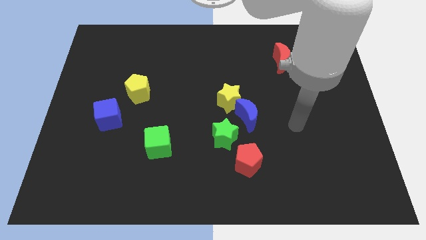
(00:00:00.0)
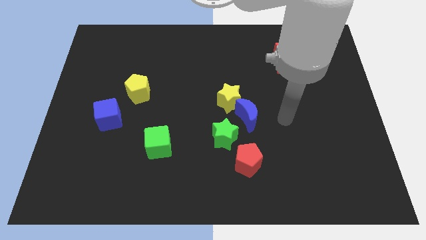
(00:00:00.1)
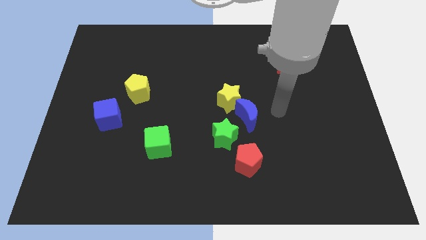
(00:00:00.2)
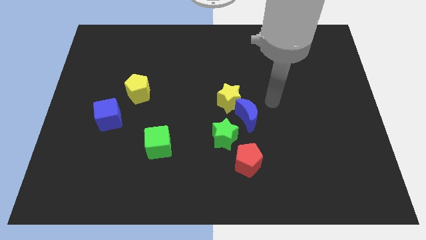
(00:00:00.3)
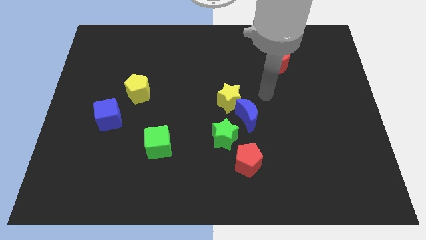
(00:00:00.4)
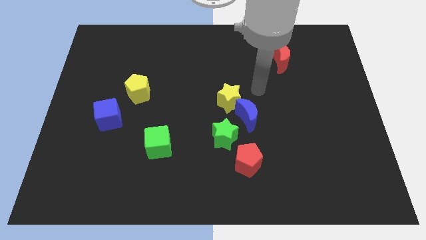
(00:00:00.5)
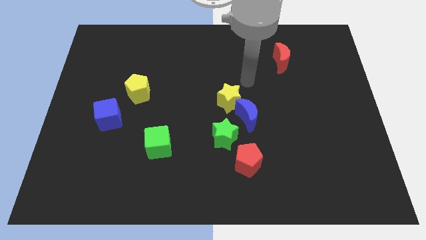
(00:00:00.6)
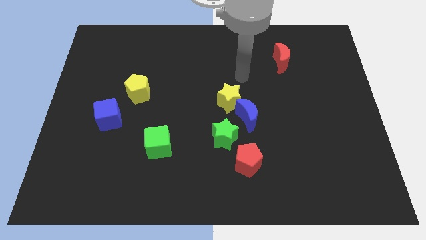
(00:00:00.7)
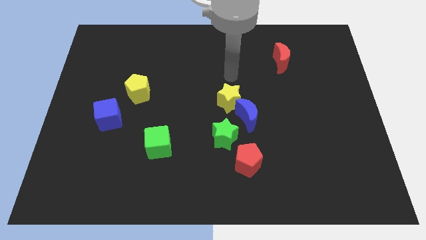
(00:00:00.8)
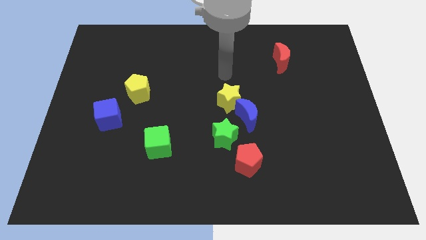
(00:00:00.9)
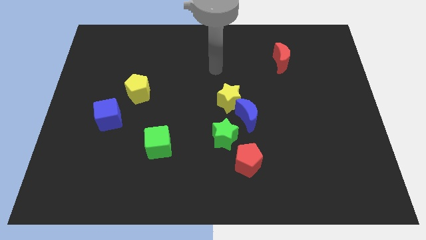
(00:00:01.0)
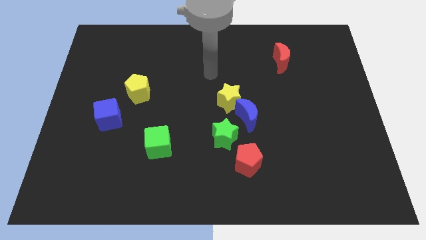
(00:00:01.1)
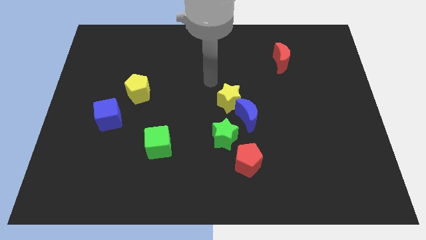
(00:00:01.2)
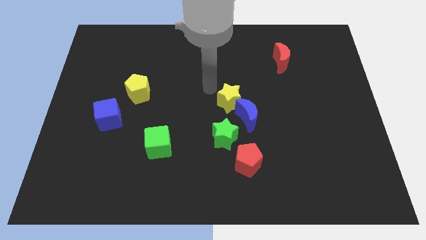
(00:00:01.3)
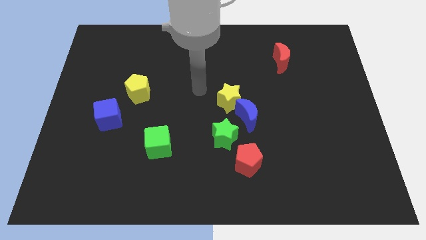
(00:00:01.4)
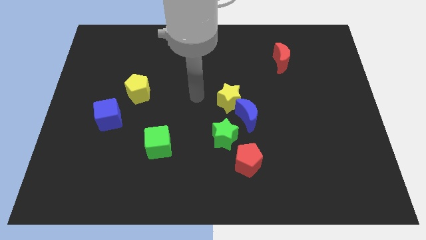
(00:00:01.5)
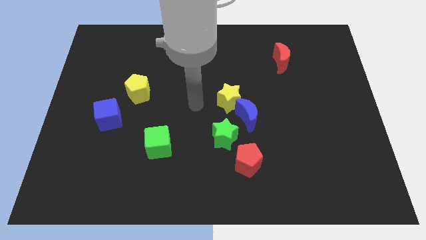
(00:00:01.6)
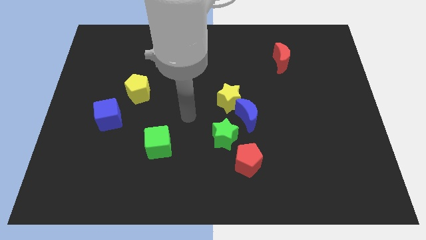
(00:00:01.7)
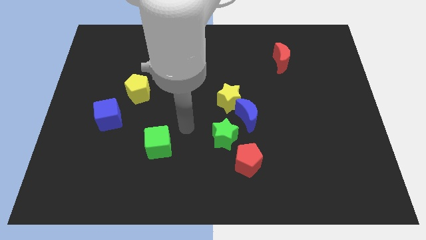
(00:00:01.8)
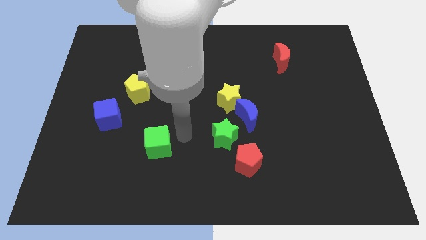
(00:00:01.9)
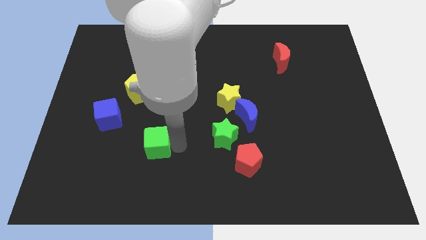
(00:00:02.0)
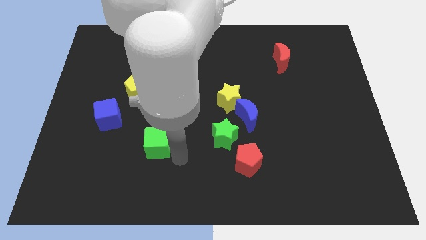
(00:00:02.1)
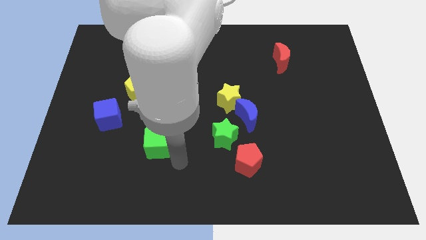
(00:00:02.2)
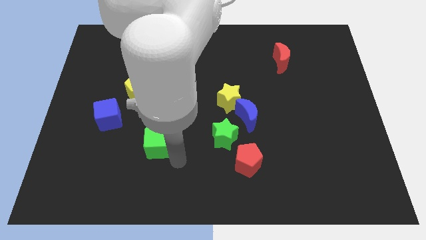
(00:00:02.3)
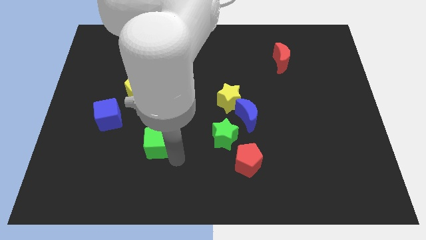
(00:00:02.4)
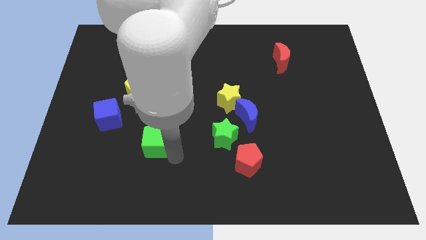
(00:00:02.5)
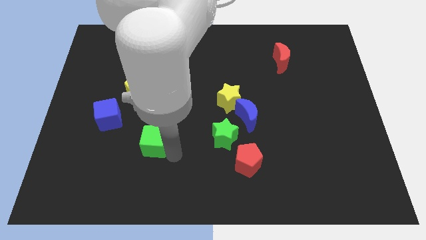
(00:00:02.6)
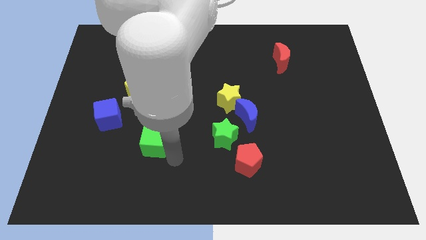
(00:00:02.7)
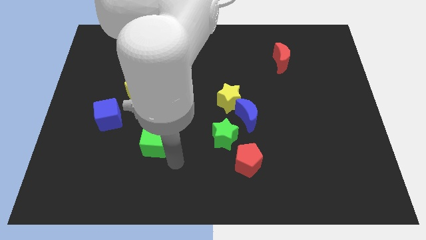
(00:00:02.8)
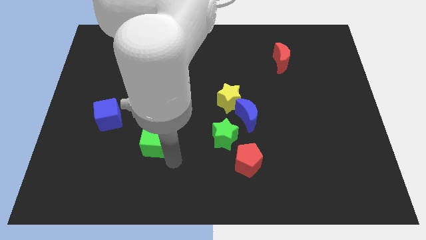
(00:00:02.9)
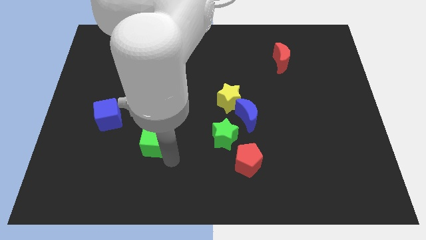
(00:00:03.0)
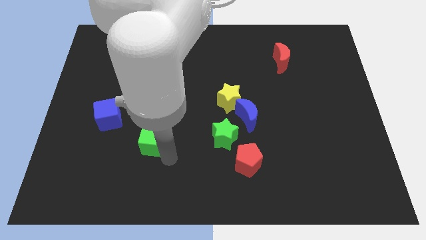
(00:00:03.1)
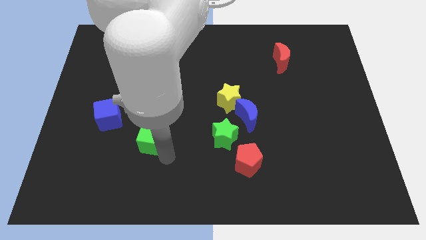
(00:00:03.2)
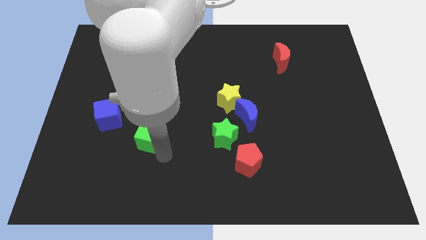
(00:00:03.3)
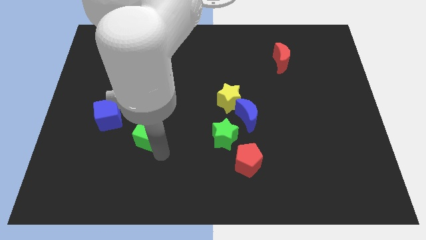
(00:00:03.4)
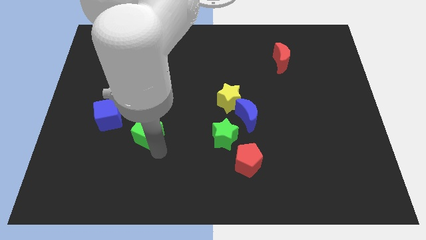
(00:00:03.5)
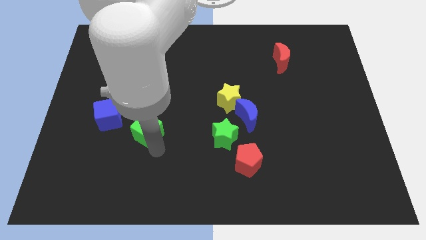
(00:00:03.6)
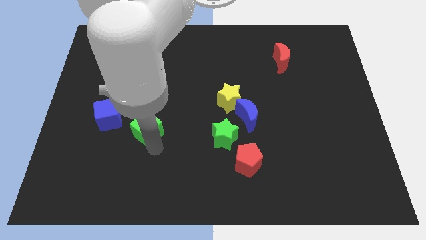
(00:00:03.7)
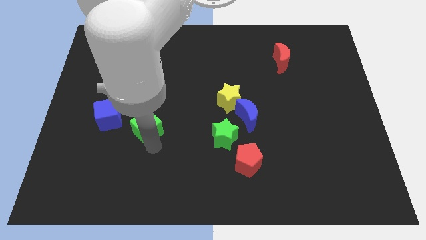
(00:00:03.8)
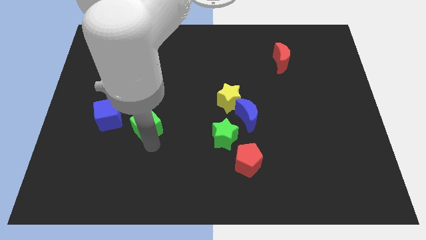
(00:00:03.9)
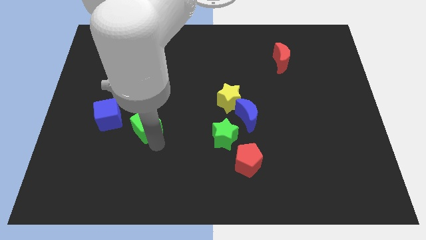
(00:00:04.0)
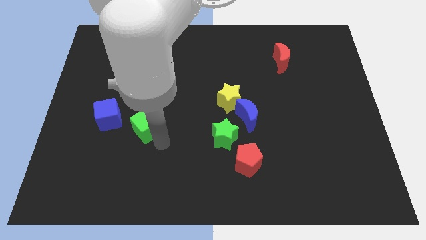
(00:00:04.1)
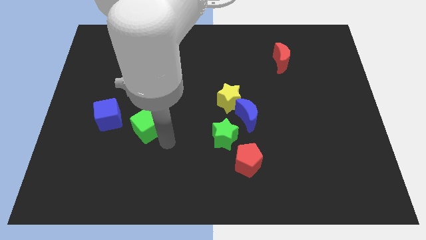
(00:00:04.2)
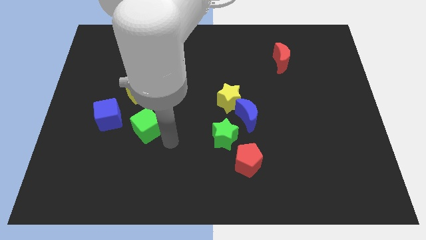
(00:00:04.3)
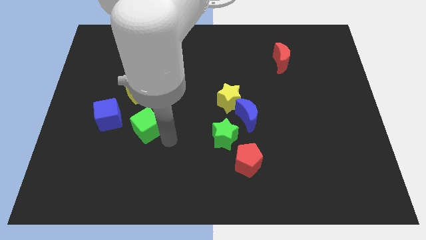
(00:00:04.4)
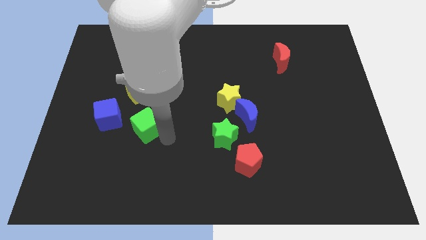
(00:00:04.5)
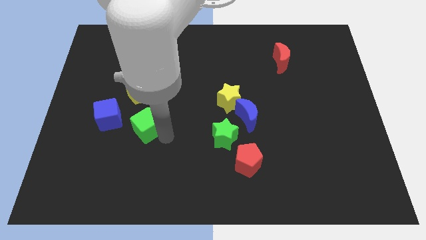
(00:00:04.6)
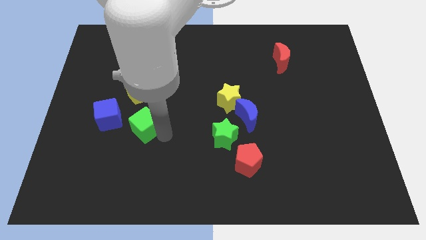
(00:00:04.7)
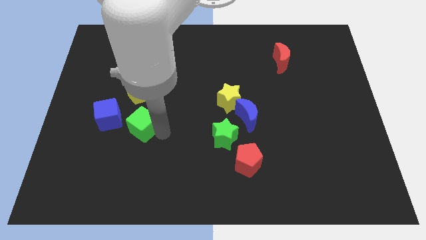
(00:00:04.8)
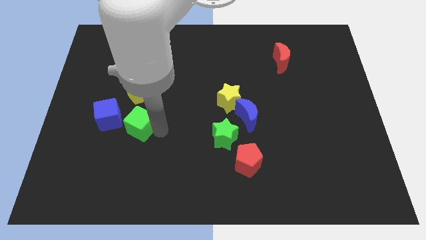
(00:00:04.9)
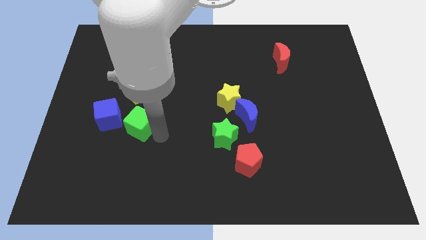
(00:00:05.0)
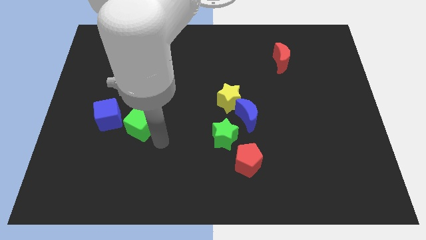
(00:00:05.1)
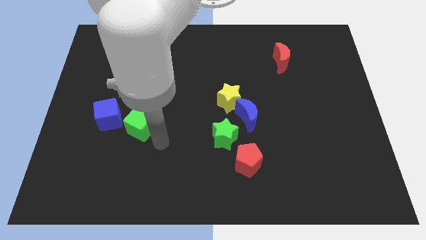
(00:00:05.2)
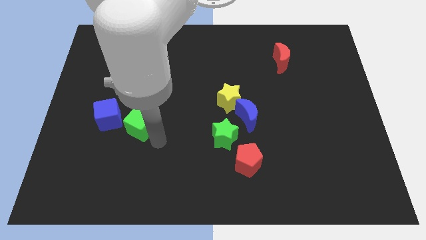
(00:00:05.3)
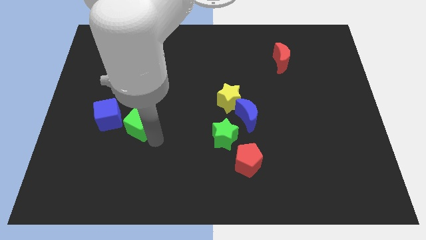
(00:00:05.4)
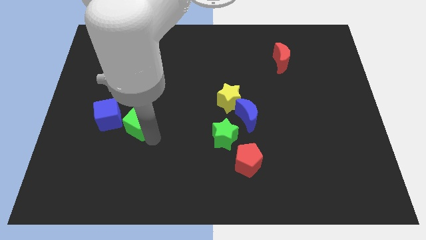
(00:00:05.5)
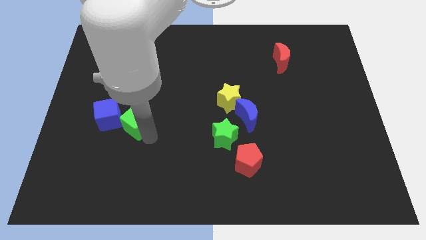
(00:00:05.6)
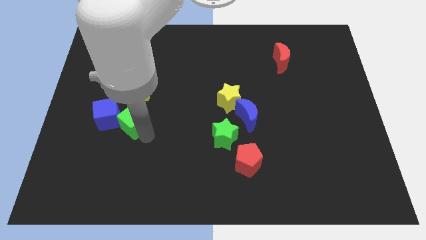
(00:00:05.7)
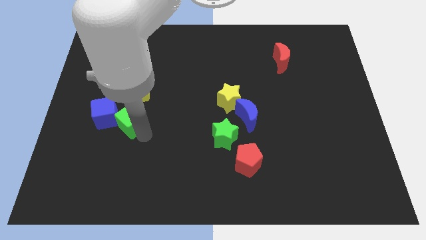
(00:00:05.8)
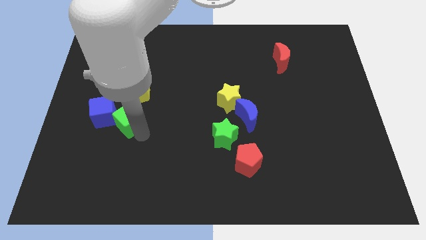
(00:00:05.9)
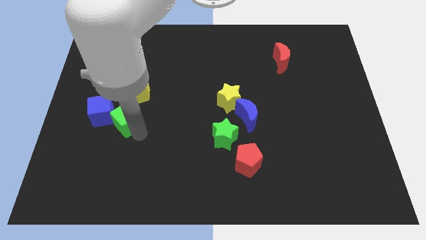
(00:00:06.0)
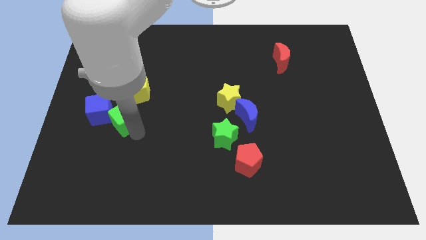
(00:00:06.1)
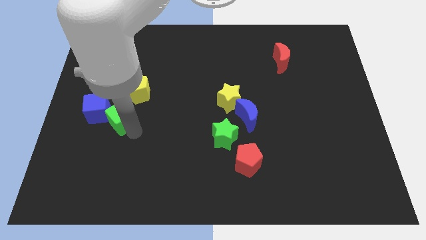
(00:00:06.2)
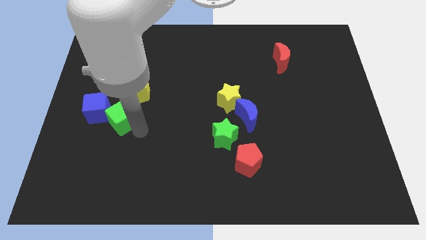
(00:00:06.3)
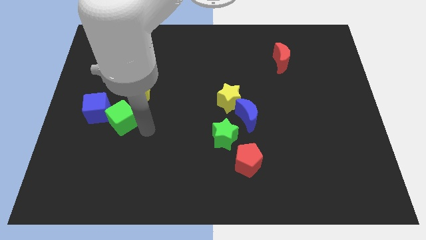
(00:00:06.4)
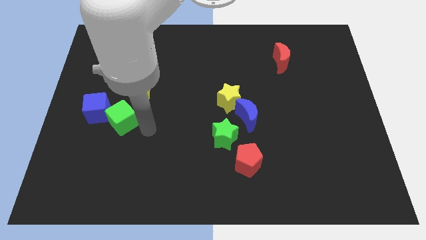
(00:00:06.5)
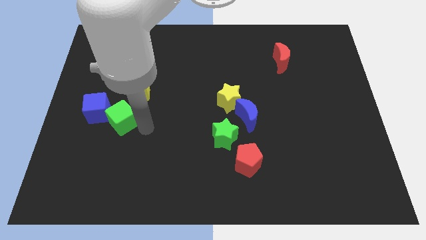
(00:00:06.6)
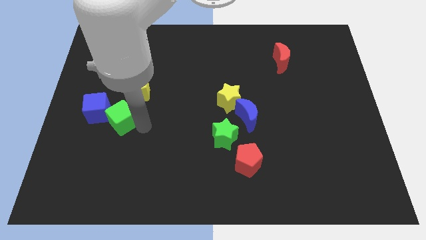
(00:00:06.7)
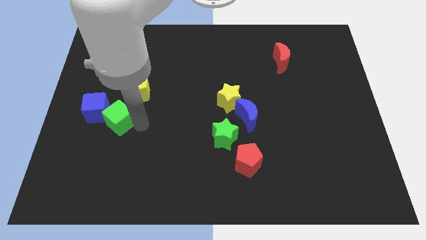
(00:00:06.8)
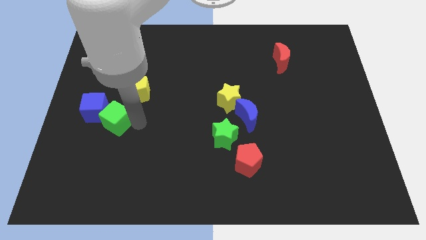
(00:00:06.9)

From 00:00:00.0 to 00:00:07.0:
move the green cube to the blue cube
